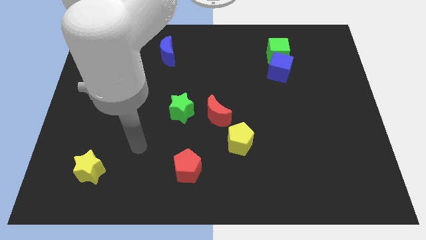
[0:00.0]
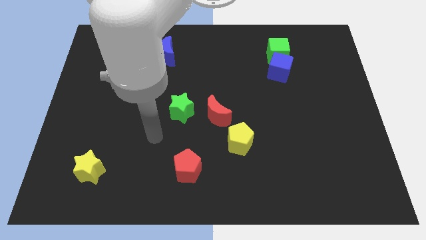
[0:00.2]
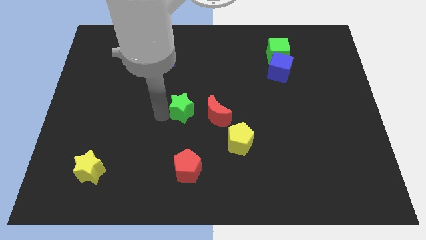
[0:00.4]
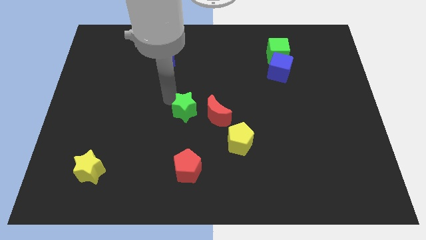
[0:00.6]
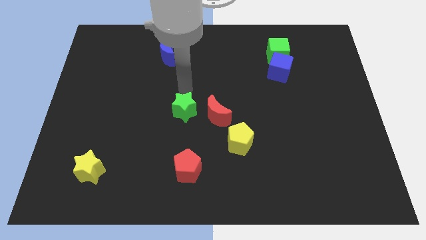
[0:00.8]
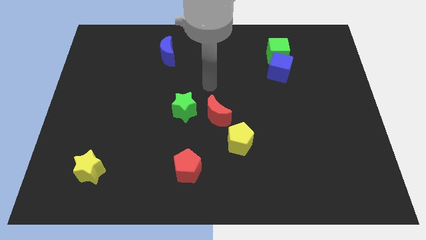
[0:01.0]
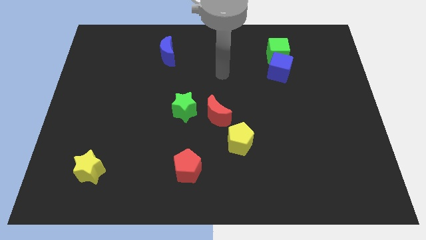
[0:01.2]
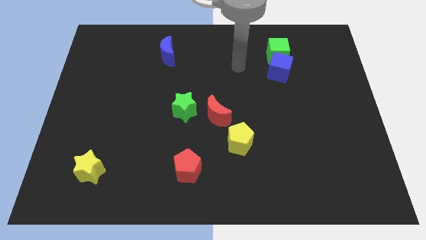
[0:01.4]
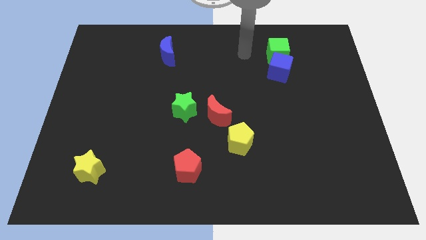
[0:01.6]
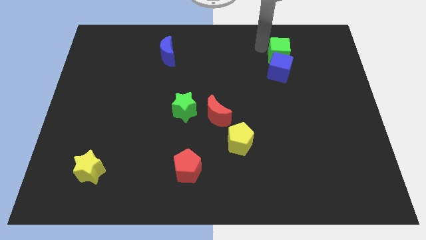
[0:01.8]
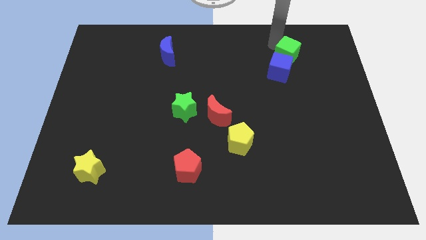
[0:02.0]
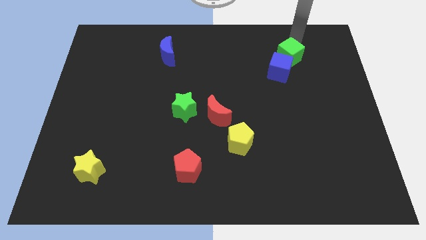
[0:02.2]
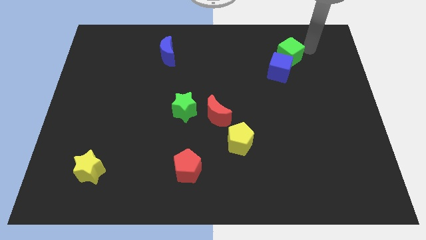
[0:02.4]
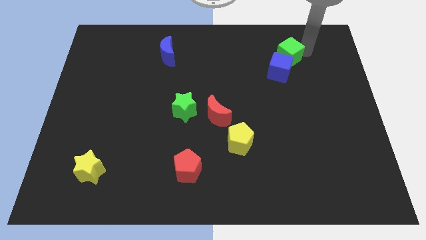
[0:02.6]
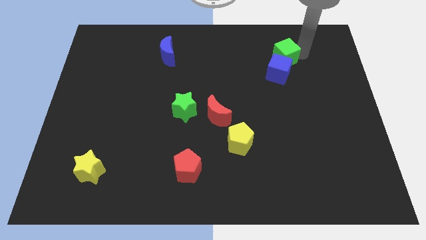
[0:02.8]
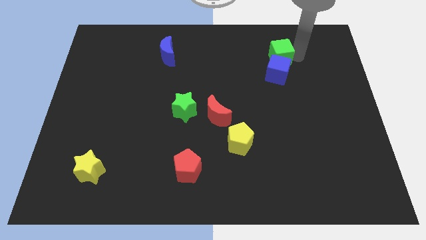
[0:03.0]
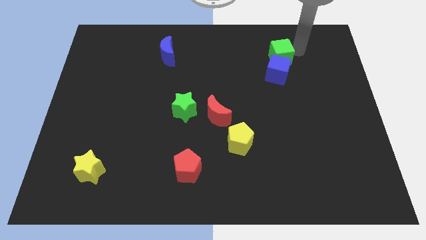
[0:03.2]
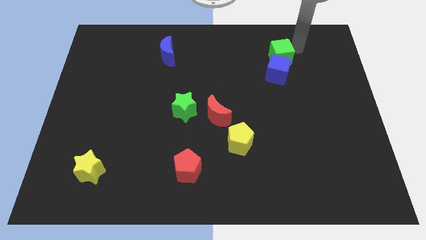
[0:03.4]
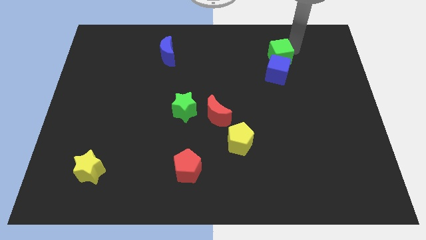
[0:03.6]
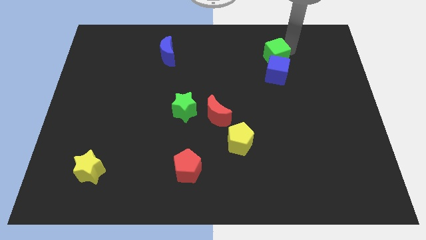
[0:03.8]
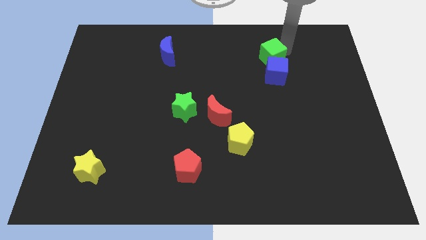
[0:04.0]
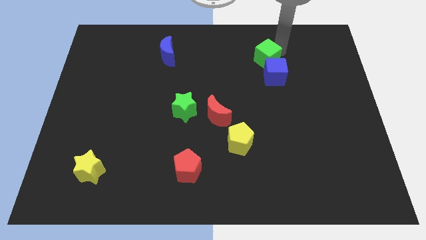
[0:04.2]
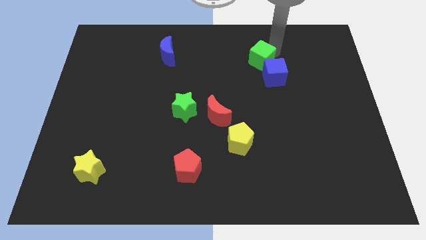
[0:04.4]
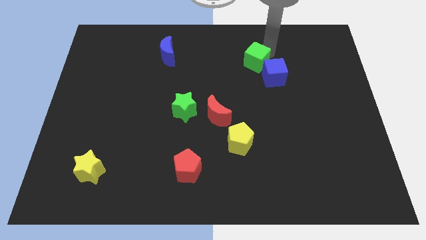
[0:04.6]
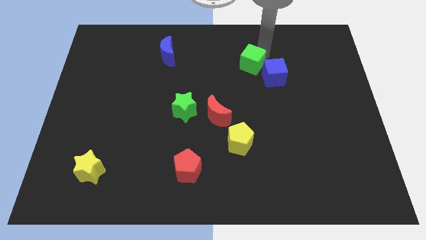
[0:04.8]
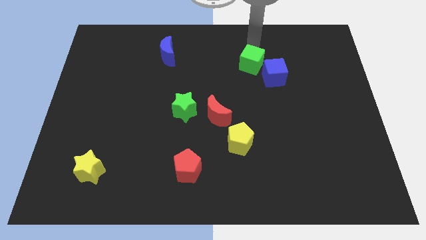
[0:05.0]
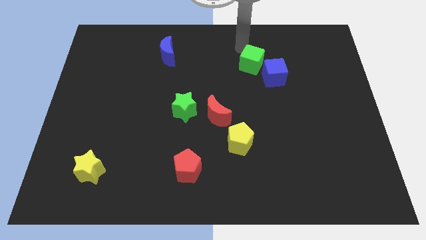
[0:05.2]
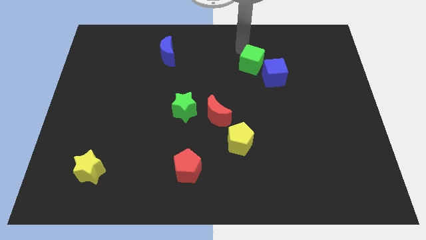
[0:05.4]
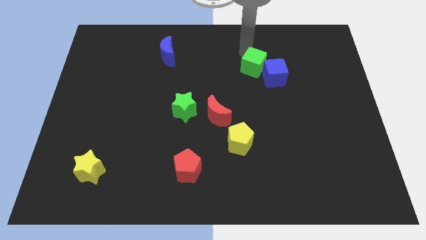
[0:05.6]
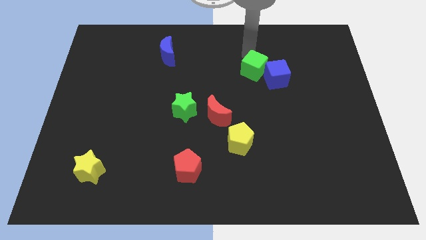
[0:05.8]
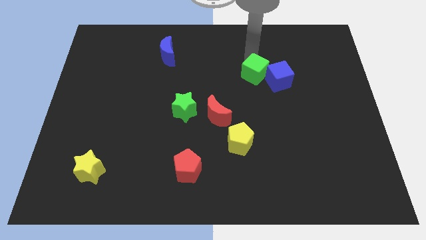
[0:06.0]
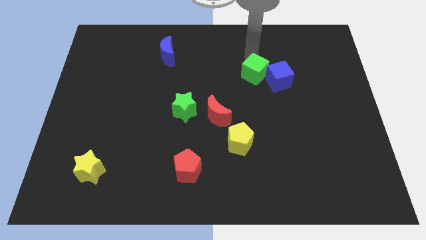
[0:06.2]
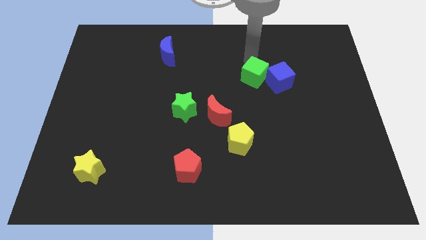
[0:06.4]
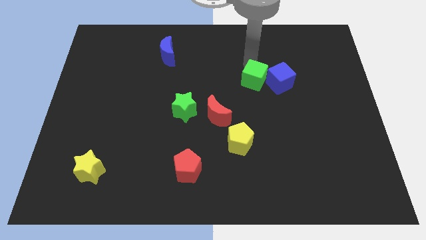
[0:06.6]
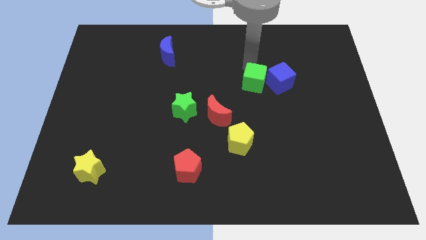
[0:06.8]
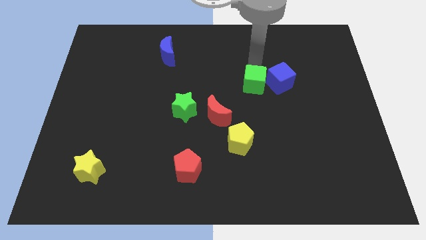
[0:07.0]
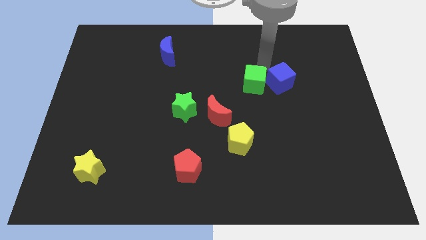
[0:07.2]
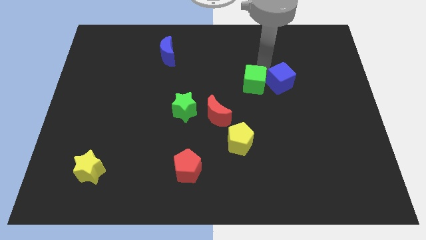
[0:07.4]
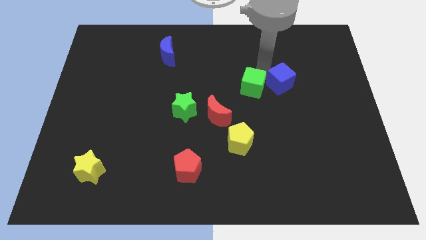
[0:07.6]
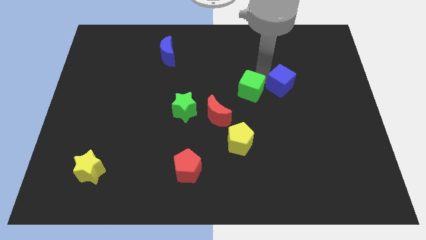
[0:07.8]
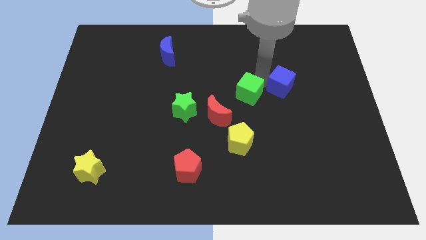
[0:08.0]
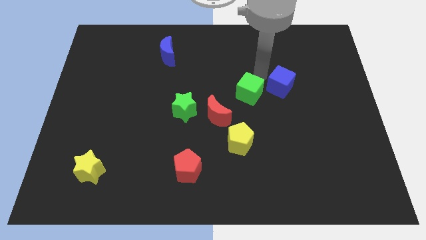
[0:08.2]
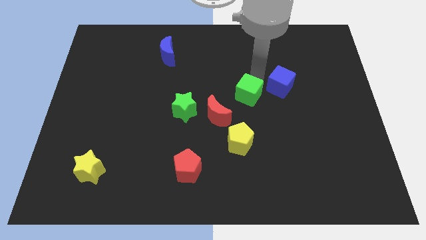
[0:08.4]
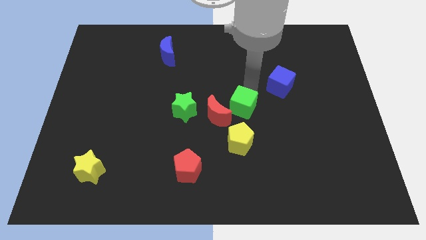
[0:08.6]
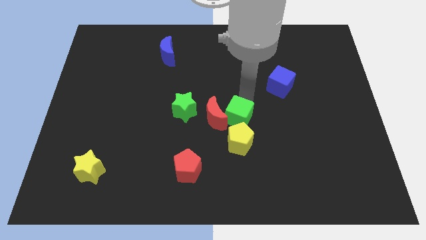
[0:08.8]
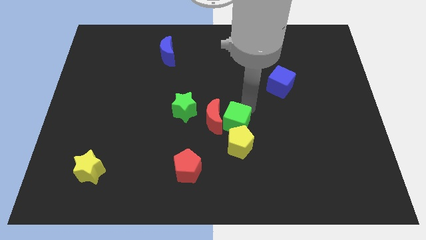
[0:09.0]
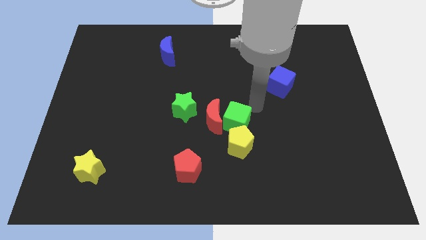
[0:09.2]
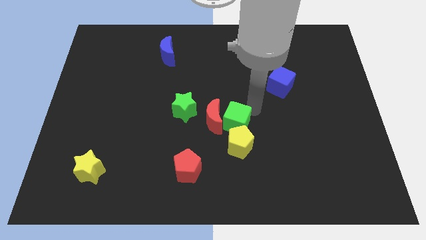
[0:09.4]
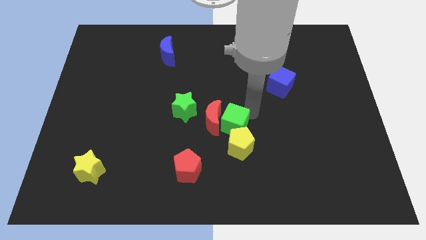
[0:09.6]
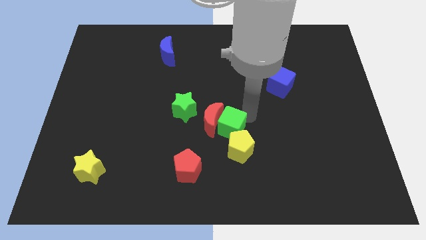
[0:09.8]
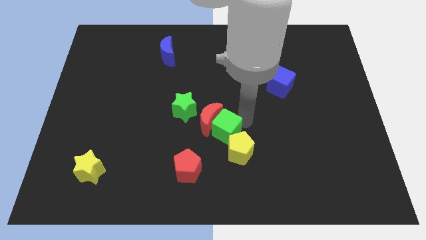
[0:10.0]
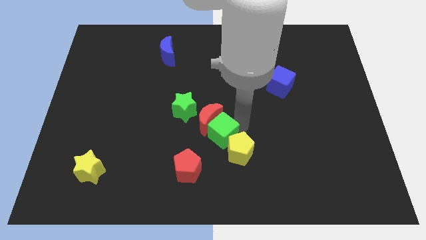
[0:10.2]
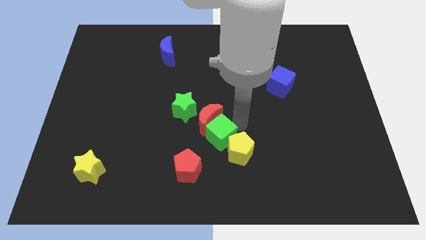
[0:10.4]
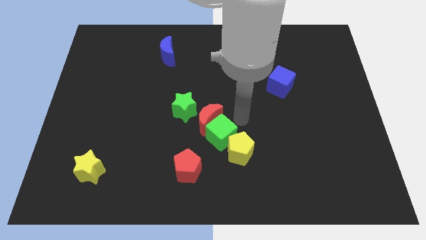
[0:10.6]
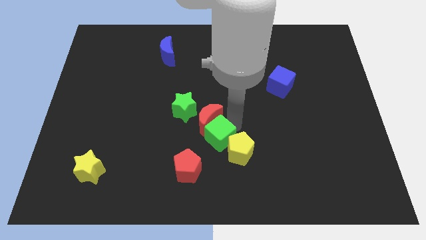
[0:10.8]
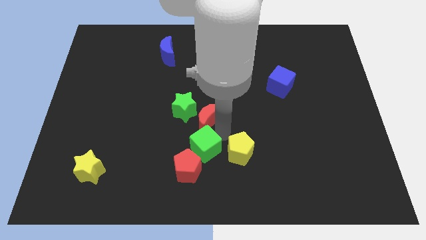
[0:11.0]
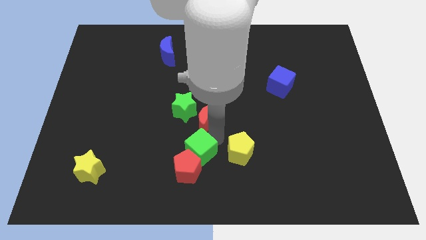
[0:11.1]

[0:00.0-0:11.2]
push the green cube next to the red pentagon
